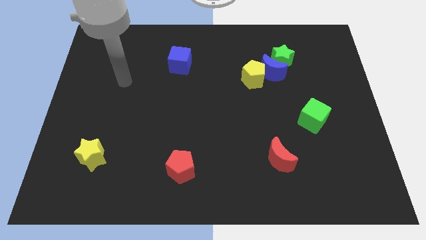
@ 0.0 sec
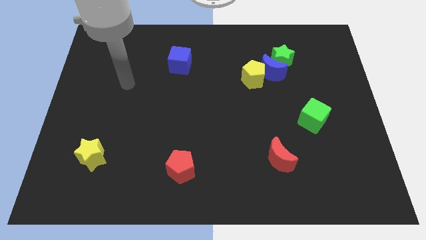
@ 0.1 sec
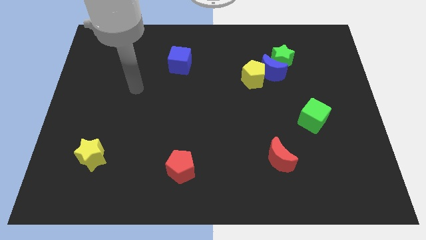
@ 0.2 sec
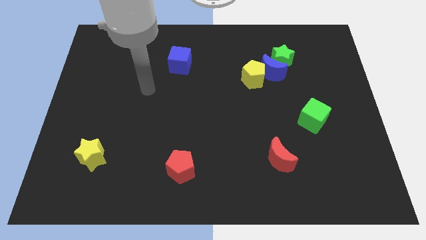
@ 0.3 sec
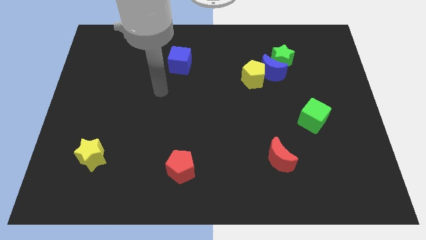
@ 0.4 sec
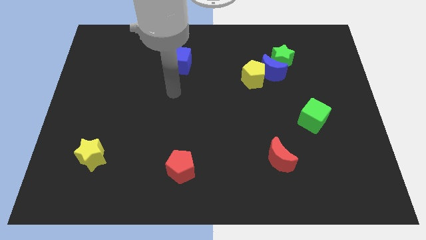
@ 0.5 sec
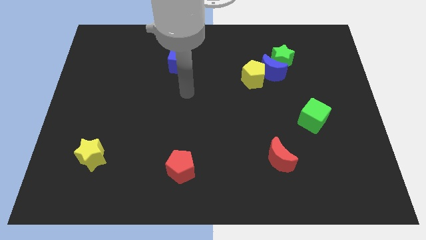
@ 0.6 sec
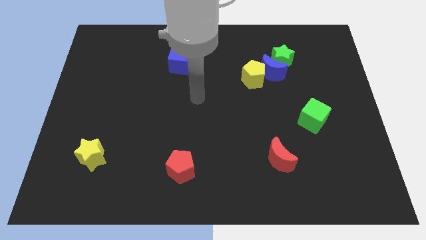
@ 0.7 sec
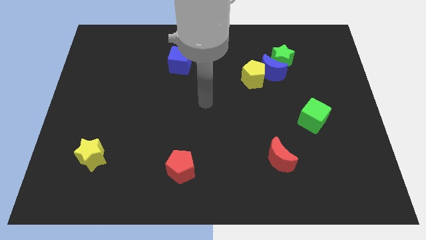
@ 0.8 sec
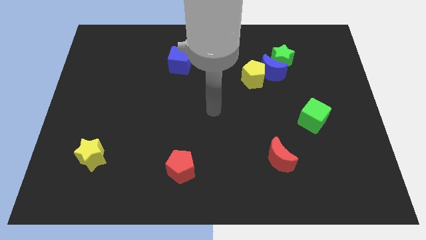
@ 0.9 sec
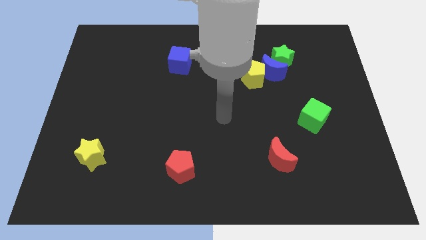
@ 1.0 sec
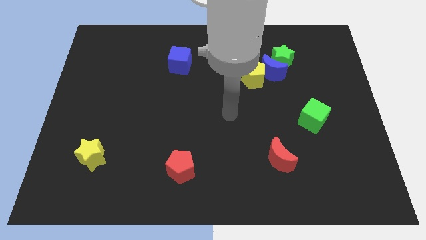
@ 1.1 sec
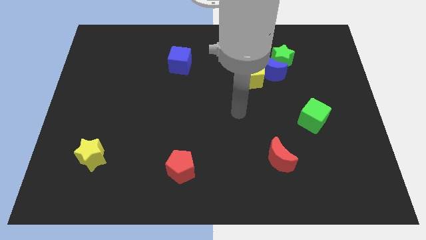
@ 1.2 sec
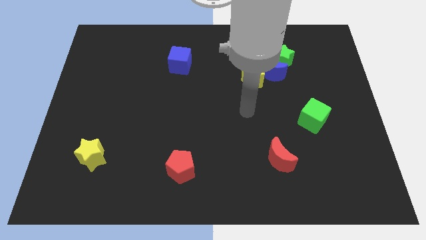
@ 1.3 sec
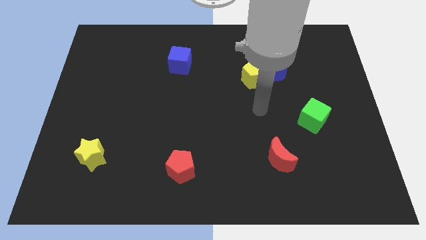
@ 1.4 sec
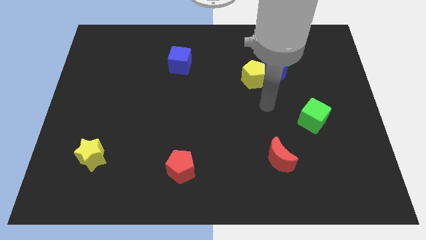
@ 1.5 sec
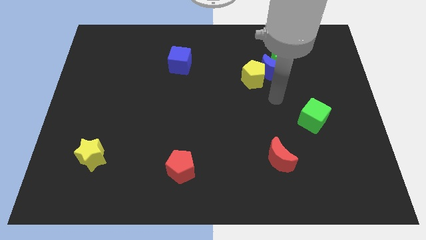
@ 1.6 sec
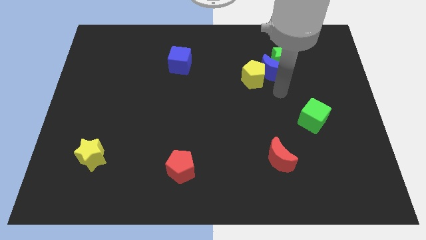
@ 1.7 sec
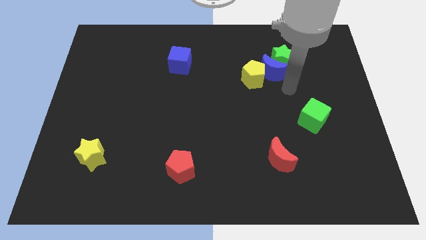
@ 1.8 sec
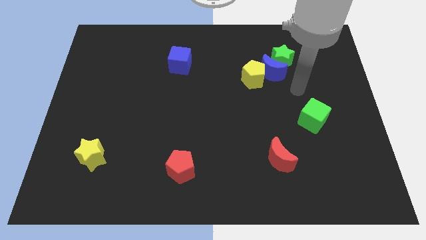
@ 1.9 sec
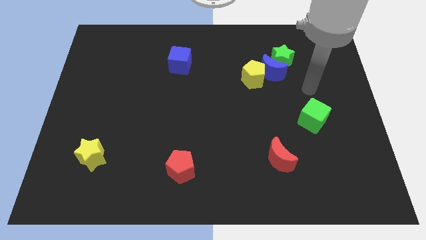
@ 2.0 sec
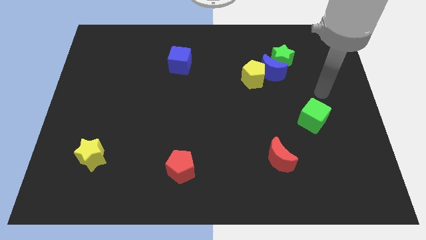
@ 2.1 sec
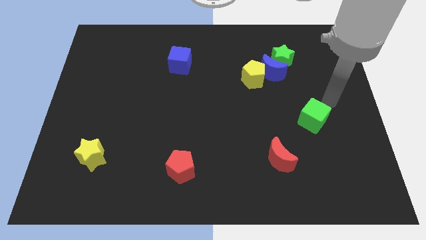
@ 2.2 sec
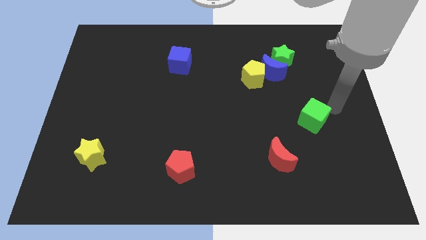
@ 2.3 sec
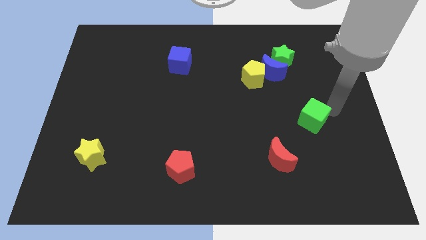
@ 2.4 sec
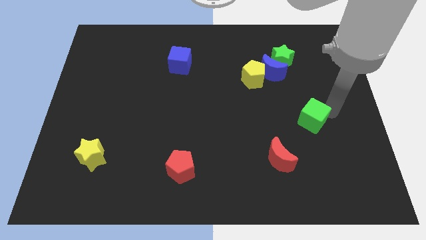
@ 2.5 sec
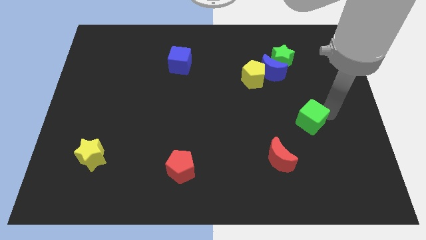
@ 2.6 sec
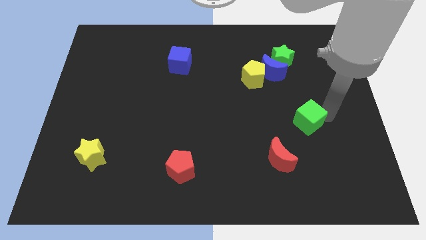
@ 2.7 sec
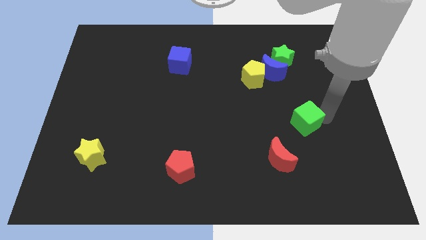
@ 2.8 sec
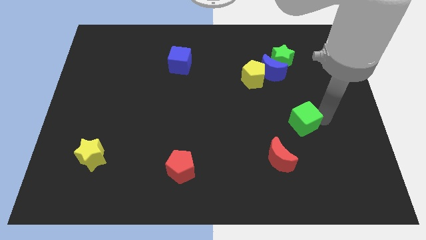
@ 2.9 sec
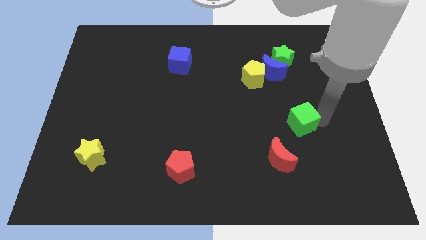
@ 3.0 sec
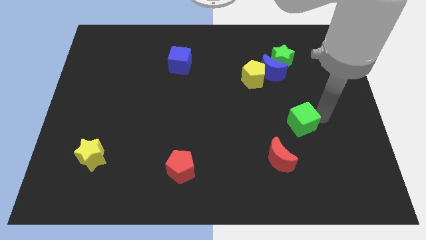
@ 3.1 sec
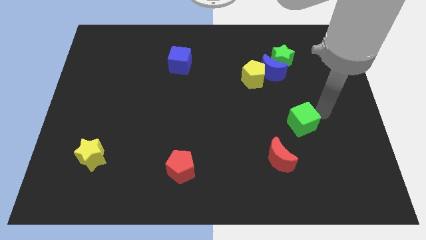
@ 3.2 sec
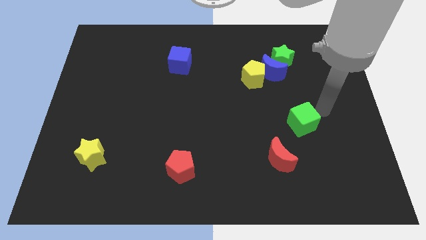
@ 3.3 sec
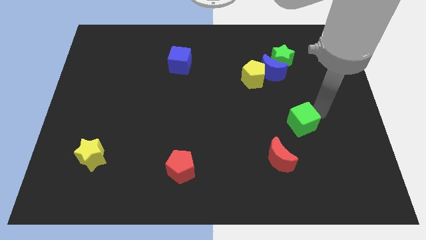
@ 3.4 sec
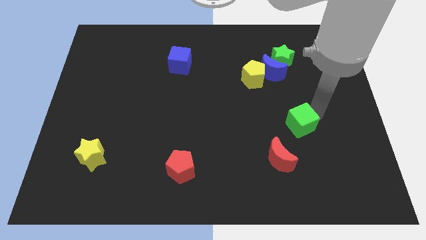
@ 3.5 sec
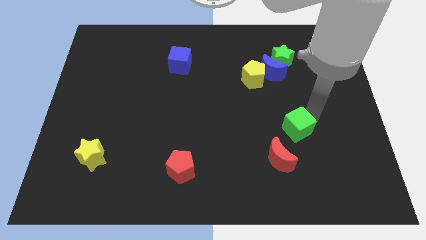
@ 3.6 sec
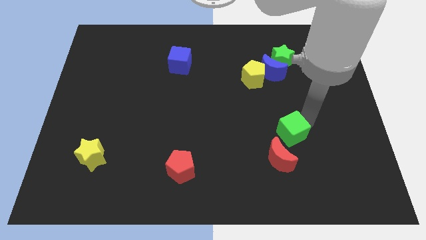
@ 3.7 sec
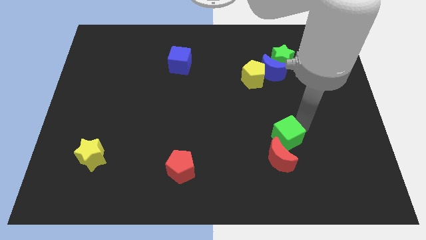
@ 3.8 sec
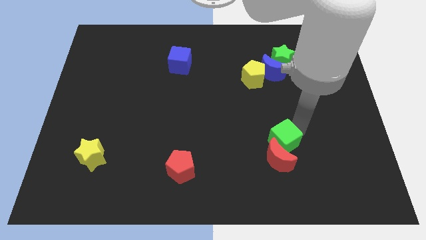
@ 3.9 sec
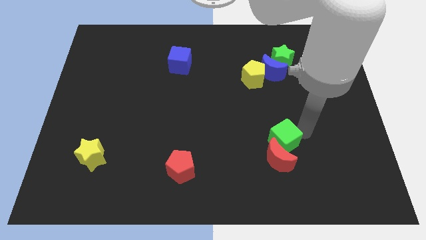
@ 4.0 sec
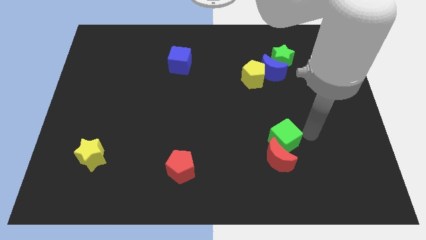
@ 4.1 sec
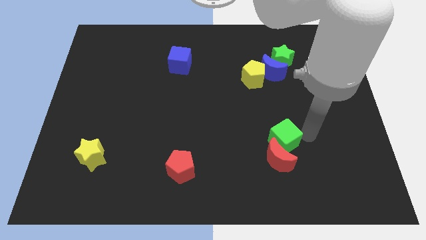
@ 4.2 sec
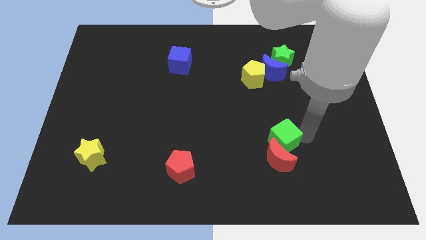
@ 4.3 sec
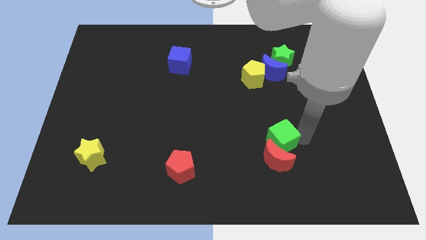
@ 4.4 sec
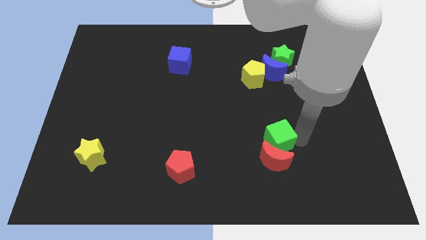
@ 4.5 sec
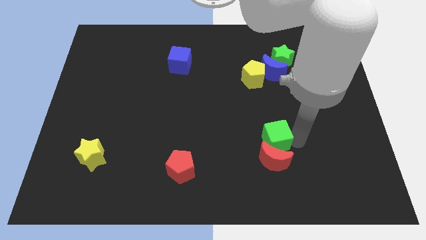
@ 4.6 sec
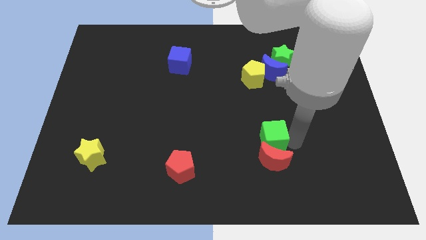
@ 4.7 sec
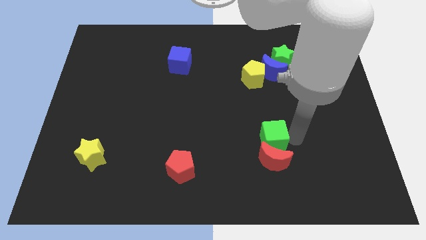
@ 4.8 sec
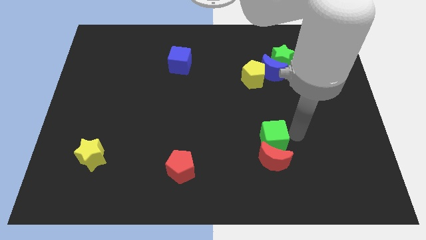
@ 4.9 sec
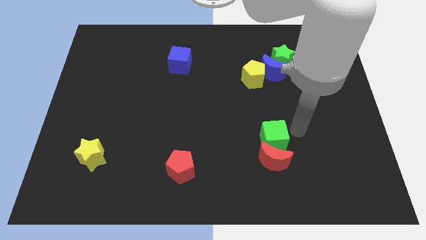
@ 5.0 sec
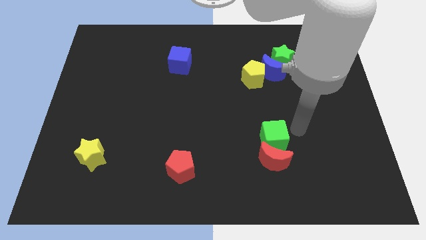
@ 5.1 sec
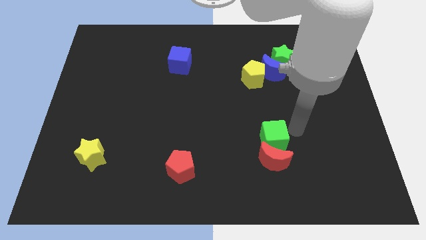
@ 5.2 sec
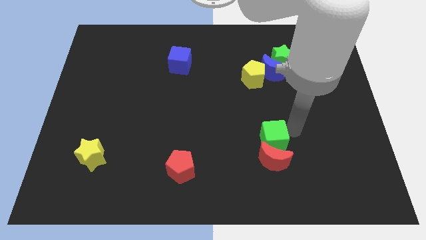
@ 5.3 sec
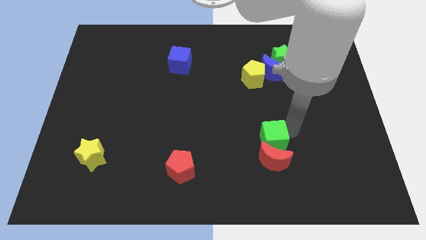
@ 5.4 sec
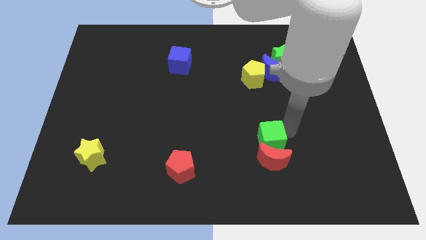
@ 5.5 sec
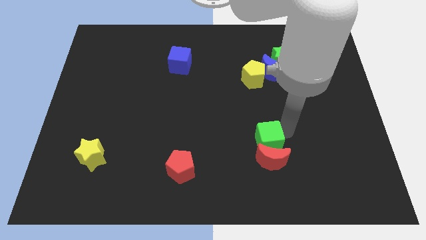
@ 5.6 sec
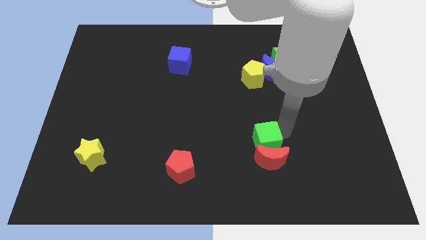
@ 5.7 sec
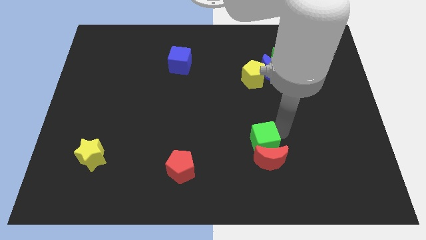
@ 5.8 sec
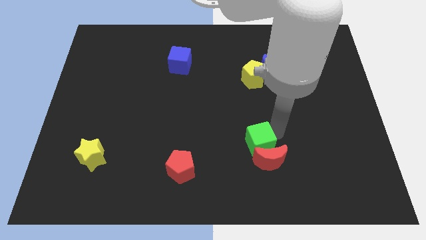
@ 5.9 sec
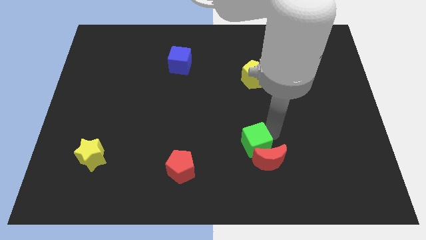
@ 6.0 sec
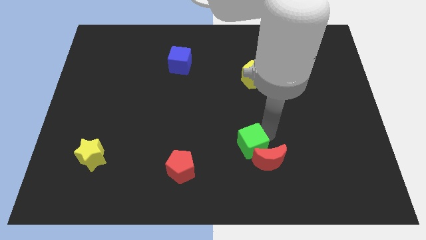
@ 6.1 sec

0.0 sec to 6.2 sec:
put the green cube to the left side of the red moon

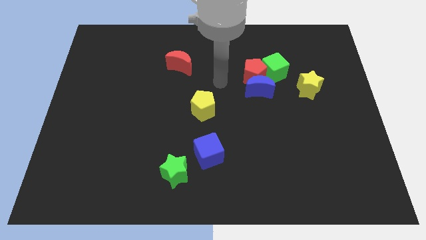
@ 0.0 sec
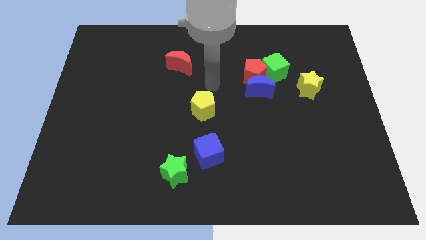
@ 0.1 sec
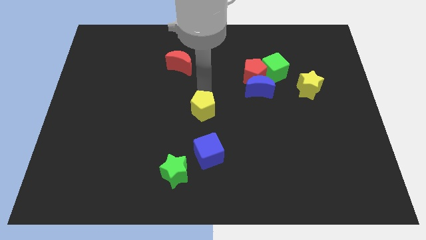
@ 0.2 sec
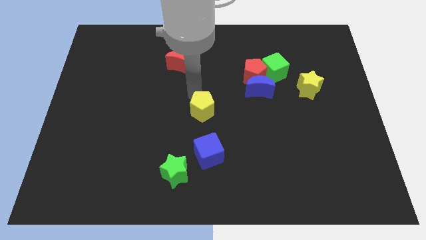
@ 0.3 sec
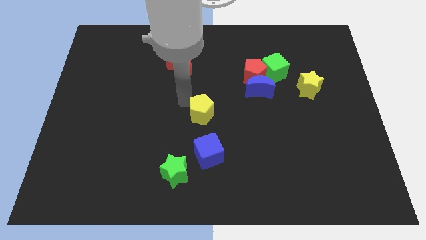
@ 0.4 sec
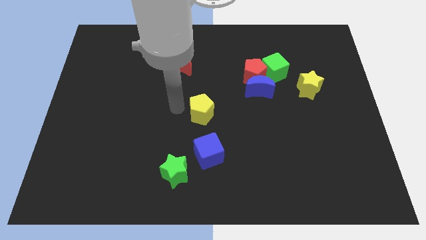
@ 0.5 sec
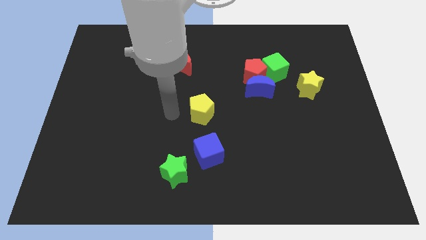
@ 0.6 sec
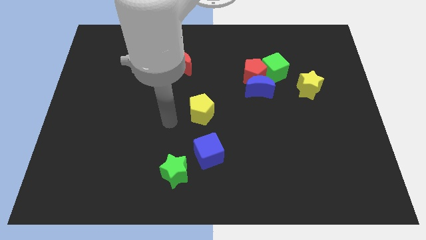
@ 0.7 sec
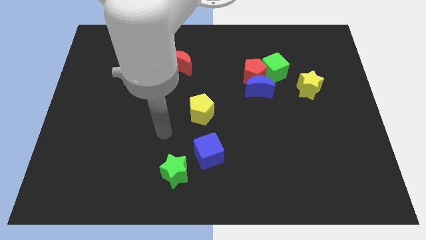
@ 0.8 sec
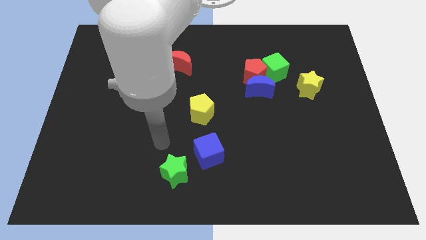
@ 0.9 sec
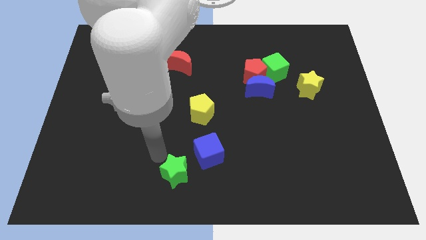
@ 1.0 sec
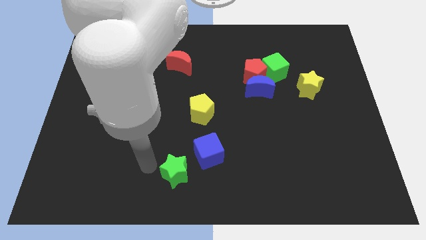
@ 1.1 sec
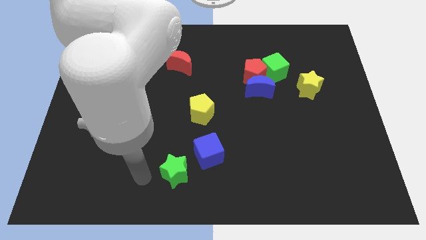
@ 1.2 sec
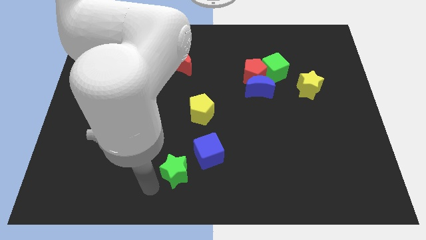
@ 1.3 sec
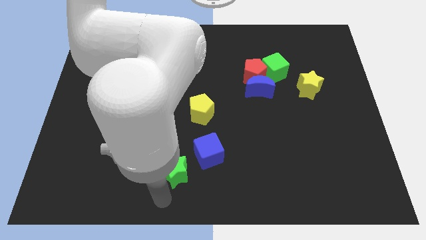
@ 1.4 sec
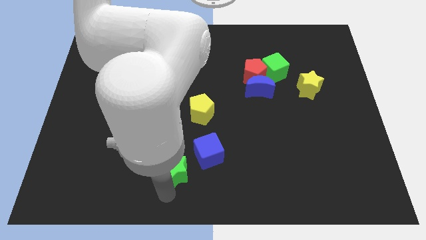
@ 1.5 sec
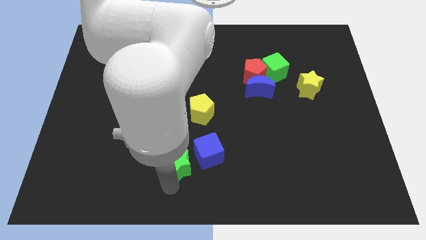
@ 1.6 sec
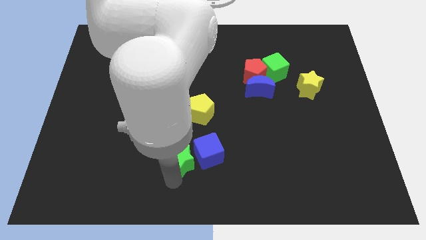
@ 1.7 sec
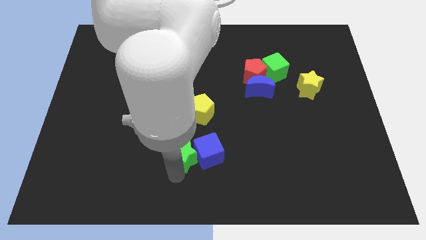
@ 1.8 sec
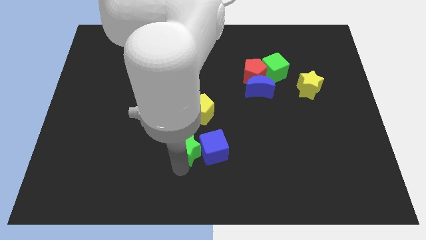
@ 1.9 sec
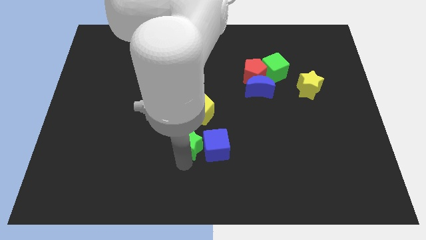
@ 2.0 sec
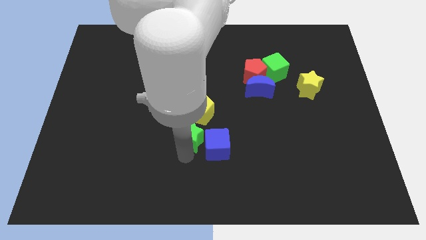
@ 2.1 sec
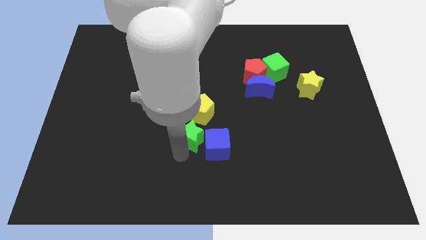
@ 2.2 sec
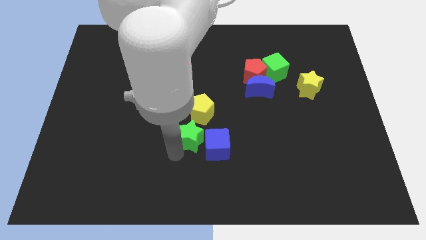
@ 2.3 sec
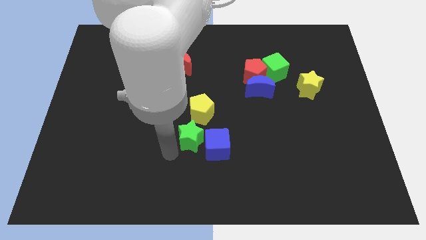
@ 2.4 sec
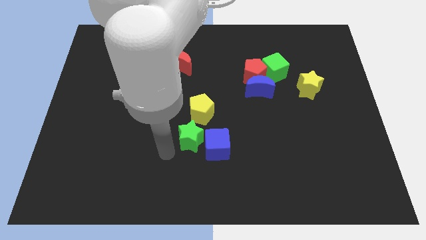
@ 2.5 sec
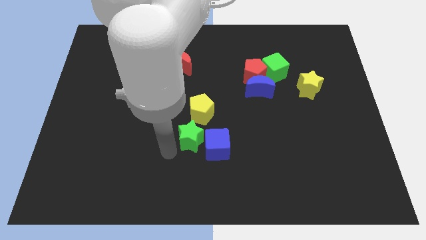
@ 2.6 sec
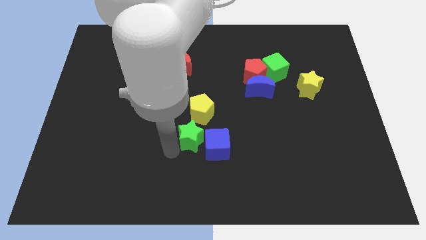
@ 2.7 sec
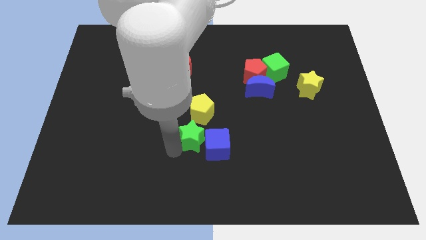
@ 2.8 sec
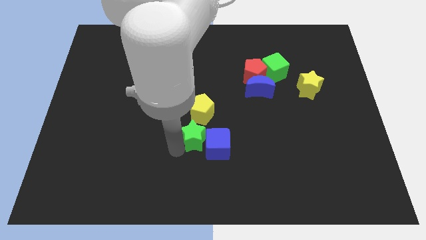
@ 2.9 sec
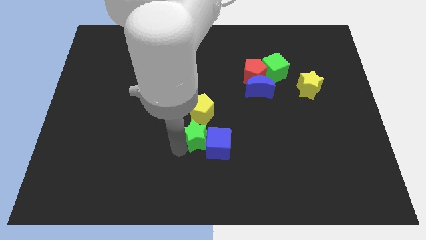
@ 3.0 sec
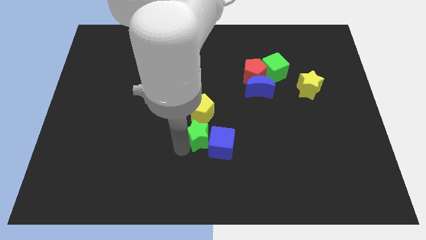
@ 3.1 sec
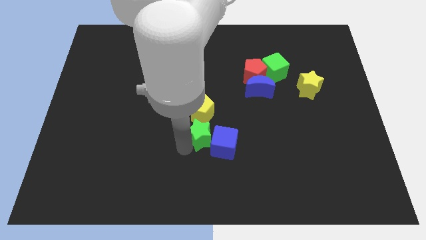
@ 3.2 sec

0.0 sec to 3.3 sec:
put the green star diagonally down and to the right of the yellow pentagon
